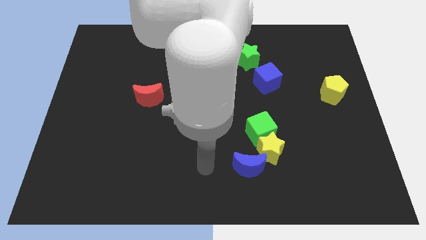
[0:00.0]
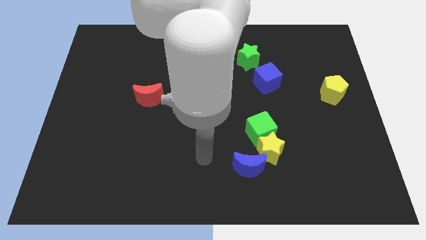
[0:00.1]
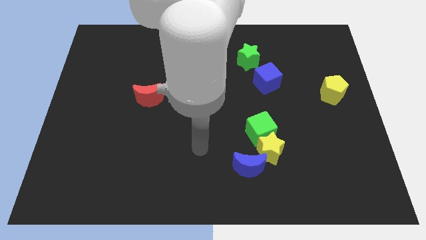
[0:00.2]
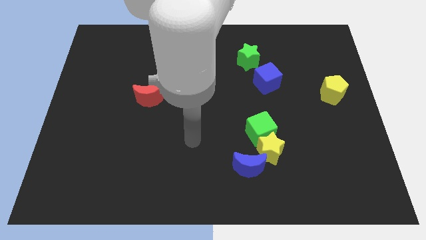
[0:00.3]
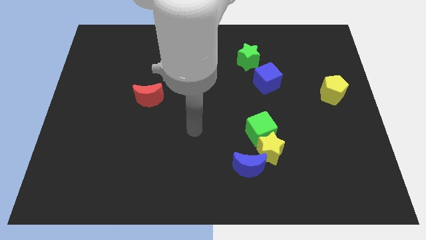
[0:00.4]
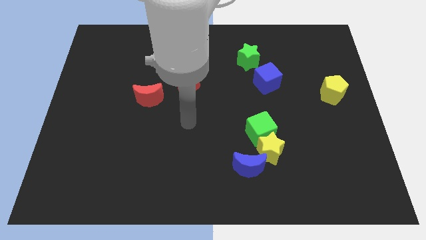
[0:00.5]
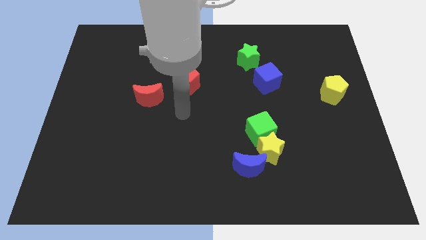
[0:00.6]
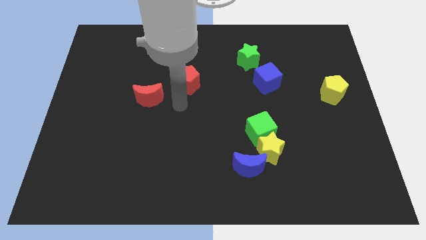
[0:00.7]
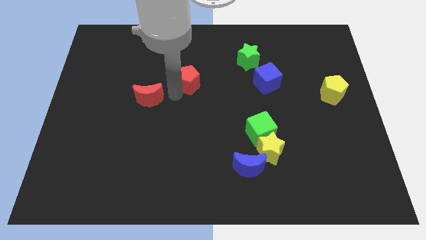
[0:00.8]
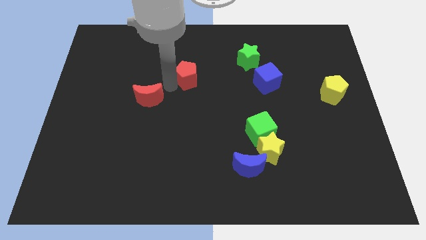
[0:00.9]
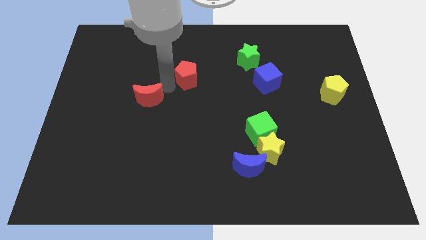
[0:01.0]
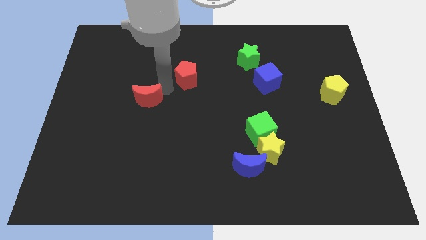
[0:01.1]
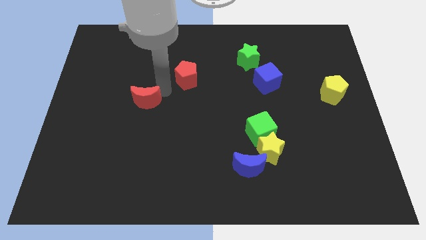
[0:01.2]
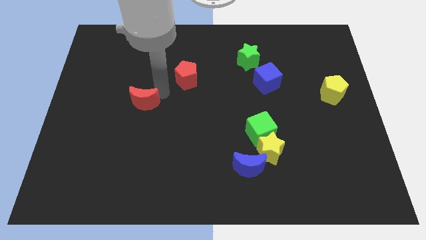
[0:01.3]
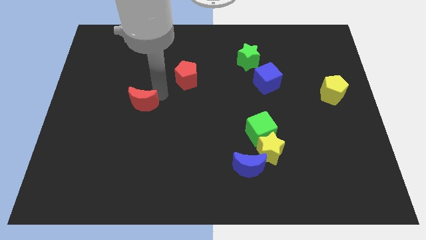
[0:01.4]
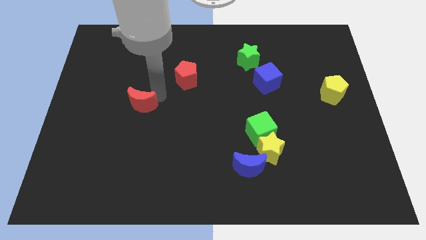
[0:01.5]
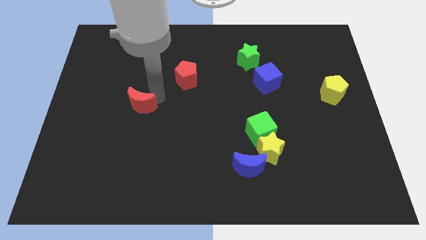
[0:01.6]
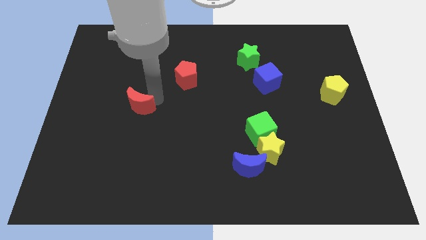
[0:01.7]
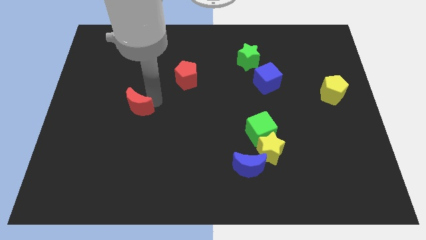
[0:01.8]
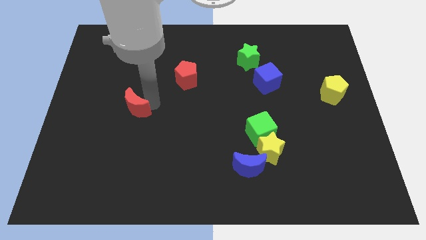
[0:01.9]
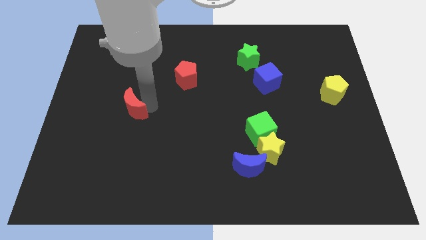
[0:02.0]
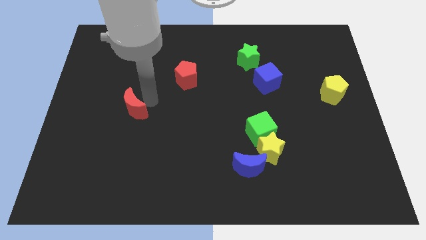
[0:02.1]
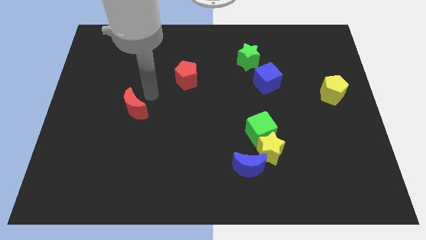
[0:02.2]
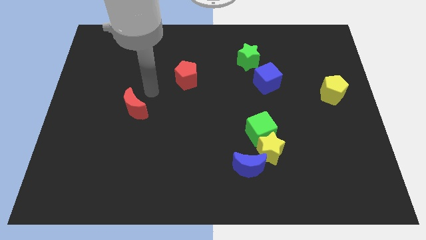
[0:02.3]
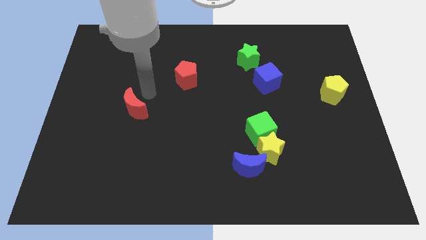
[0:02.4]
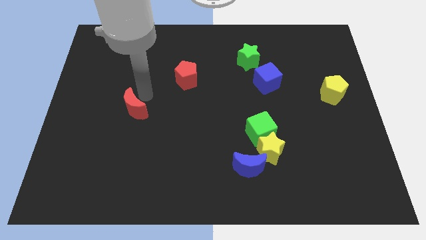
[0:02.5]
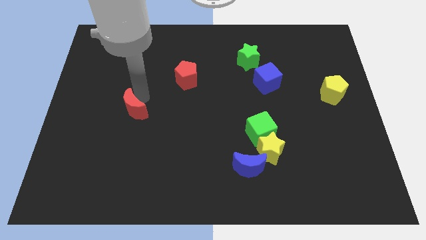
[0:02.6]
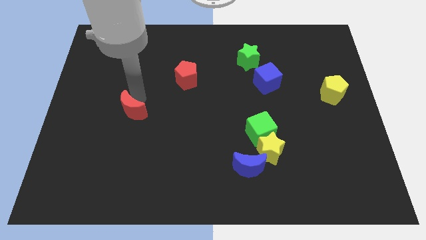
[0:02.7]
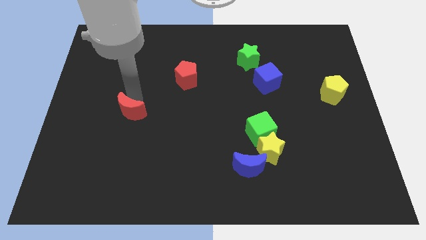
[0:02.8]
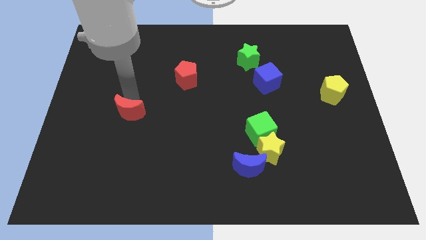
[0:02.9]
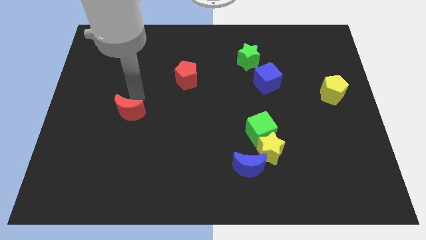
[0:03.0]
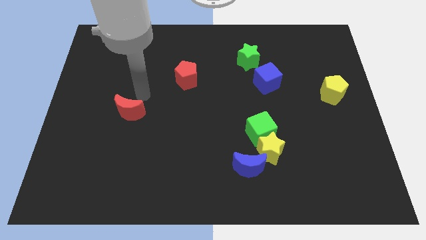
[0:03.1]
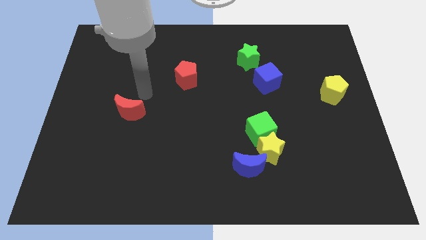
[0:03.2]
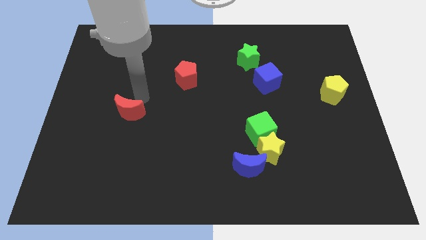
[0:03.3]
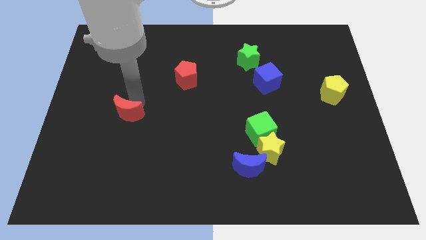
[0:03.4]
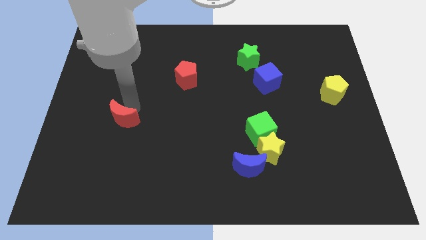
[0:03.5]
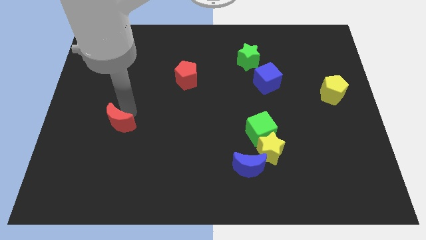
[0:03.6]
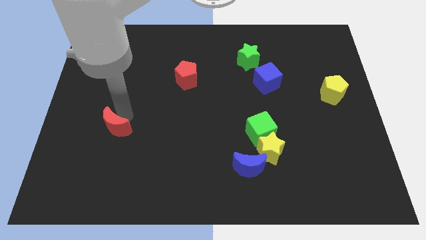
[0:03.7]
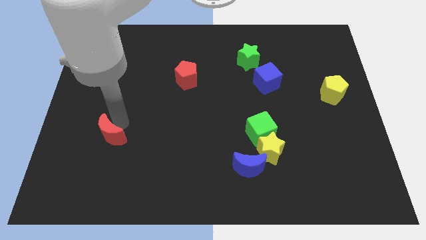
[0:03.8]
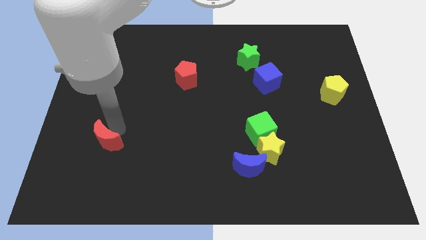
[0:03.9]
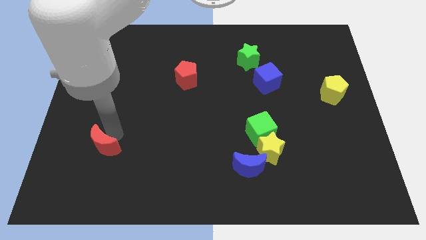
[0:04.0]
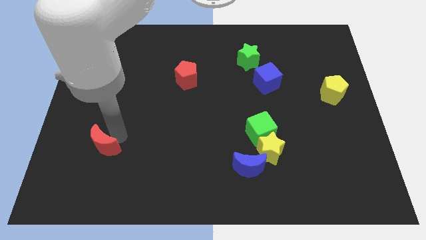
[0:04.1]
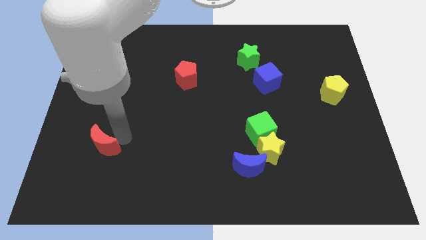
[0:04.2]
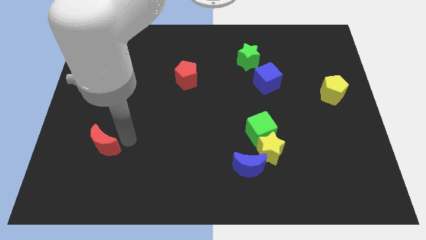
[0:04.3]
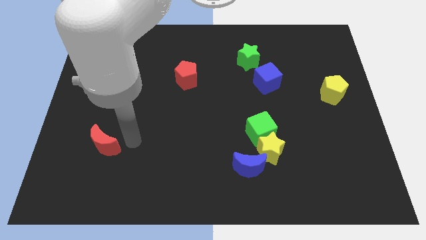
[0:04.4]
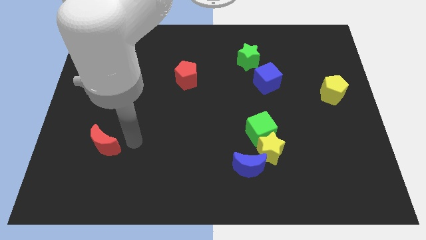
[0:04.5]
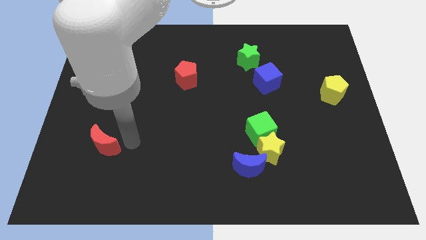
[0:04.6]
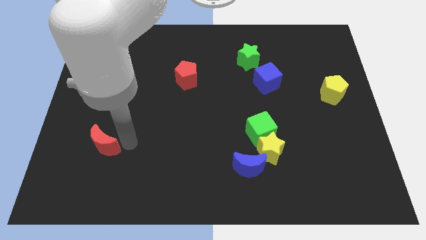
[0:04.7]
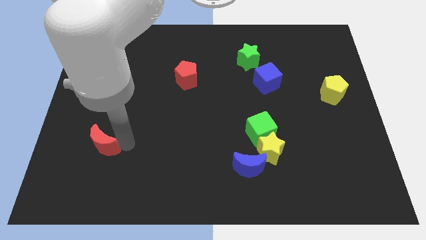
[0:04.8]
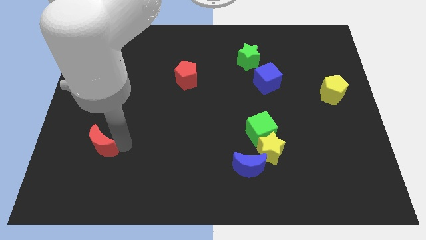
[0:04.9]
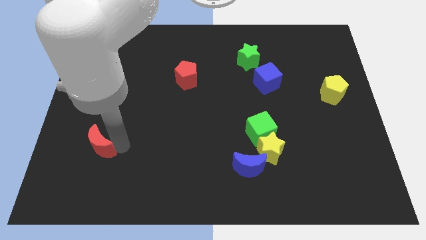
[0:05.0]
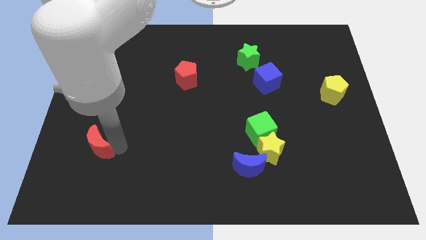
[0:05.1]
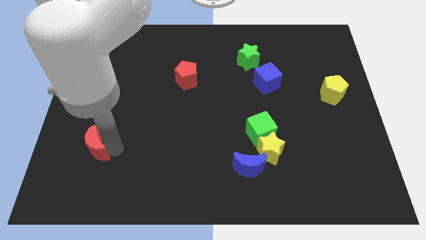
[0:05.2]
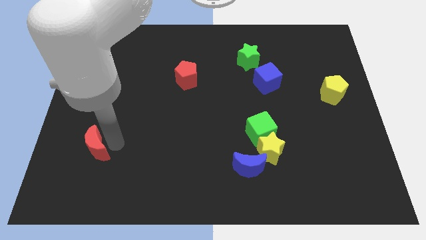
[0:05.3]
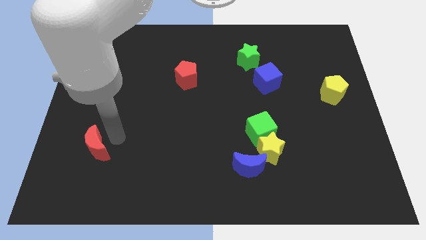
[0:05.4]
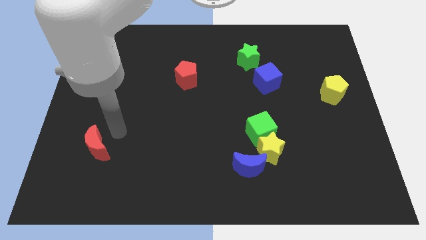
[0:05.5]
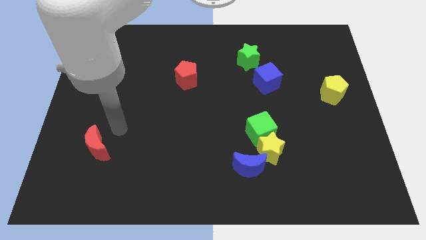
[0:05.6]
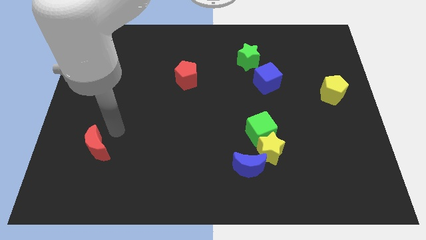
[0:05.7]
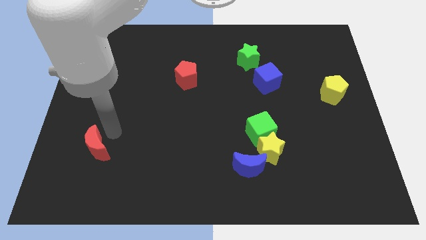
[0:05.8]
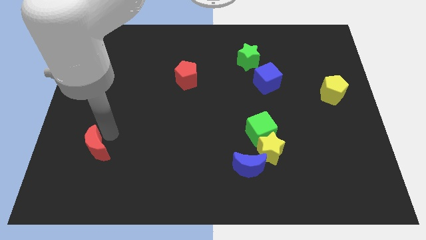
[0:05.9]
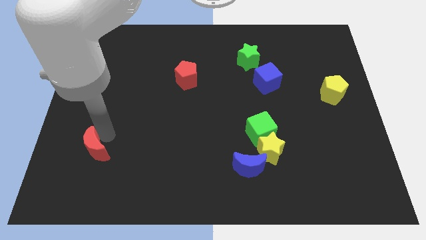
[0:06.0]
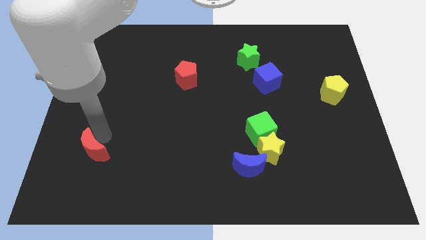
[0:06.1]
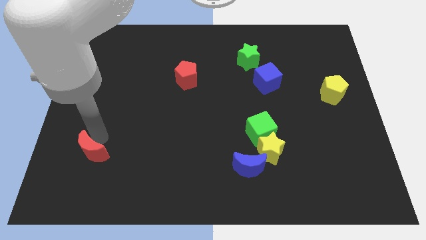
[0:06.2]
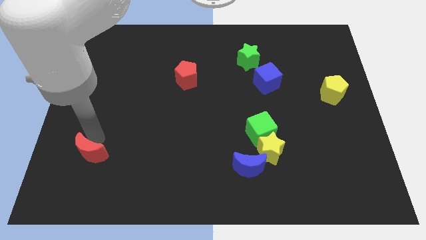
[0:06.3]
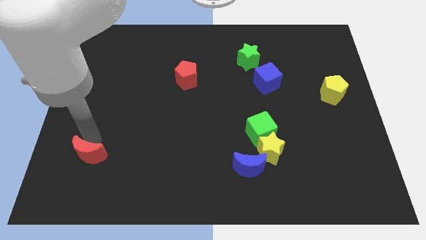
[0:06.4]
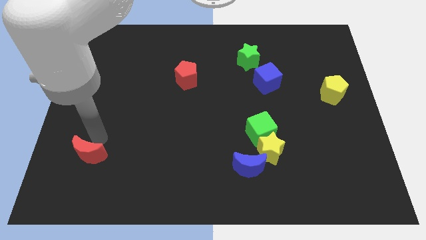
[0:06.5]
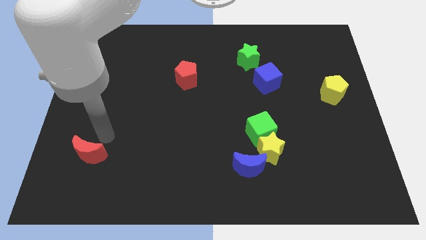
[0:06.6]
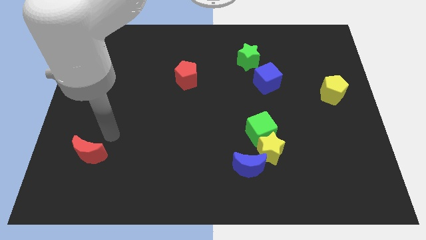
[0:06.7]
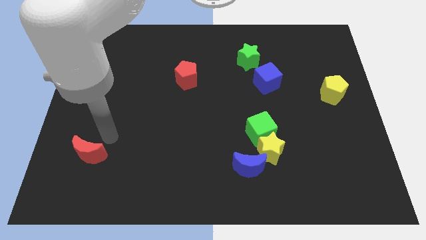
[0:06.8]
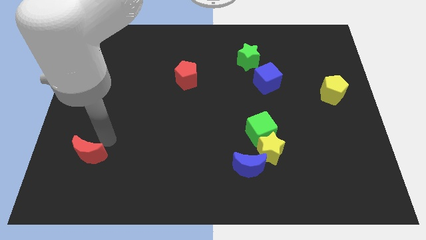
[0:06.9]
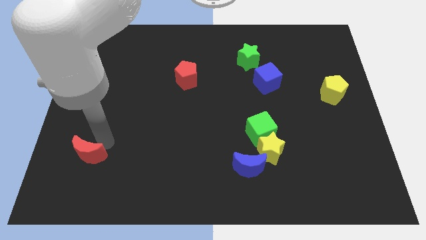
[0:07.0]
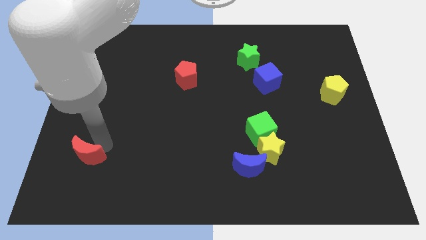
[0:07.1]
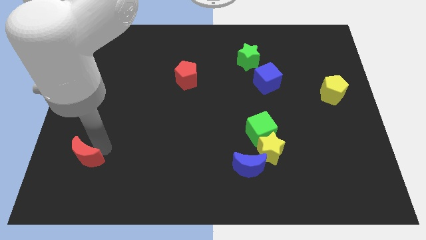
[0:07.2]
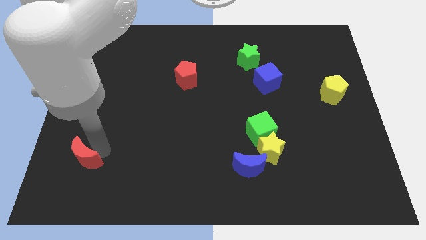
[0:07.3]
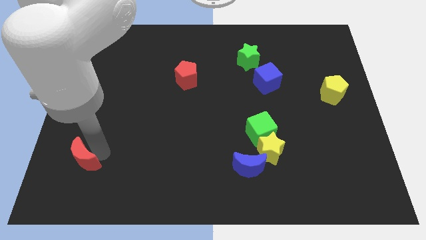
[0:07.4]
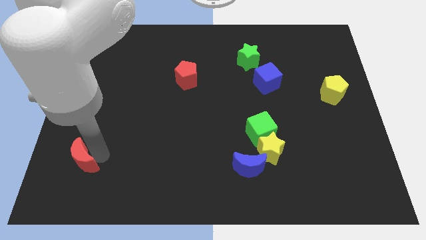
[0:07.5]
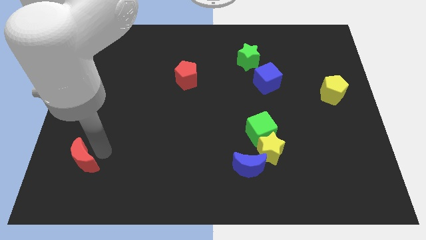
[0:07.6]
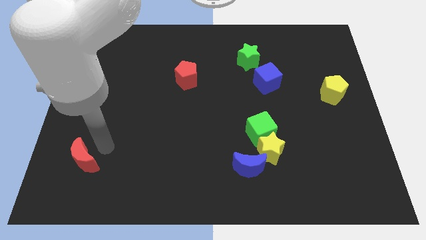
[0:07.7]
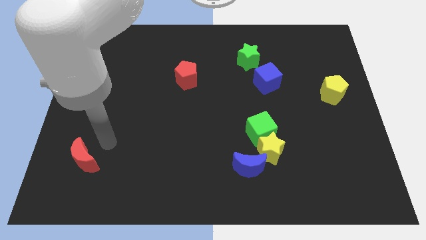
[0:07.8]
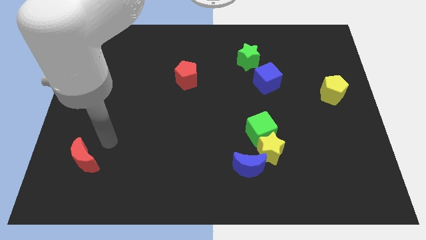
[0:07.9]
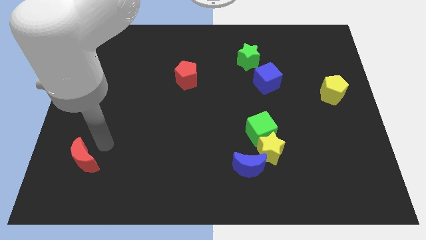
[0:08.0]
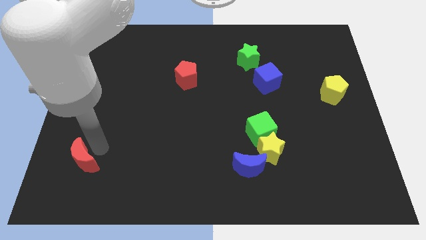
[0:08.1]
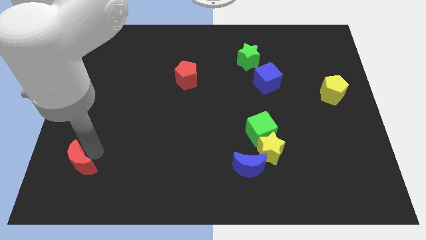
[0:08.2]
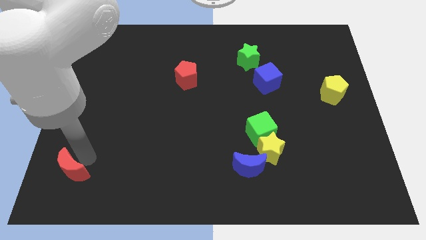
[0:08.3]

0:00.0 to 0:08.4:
slide the red moon to the lower left corner
